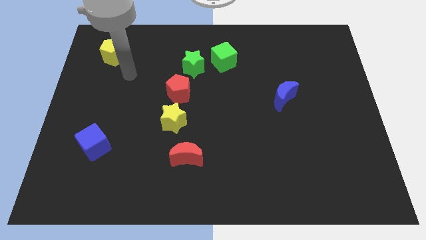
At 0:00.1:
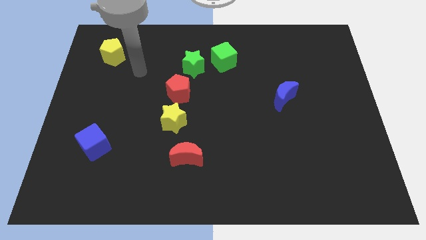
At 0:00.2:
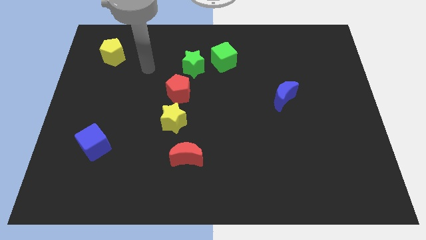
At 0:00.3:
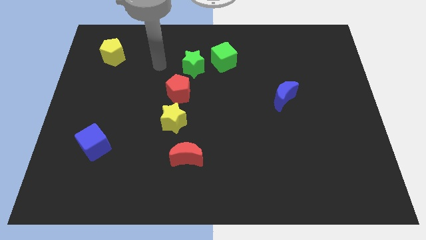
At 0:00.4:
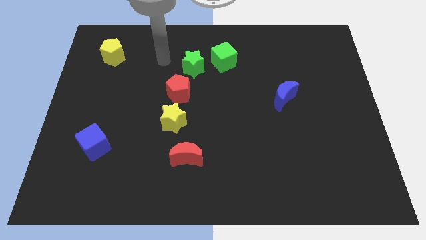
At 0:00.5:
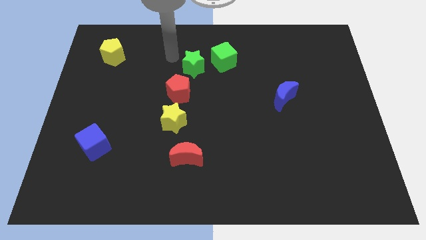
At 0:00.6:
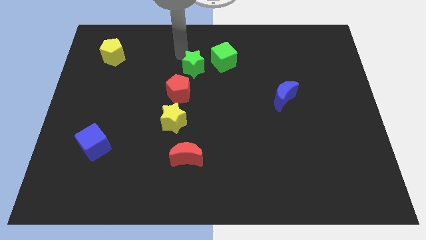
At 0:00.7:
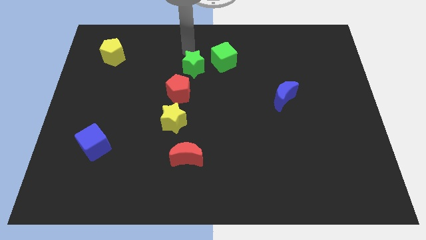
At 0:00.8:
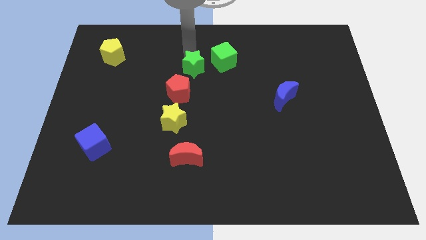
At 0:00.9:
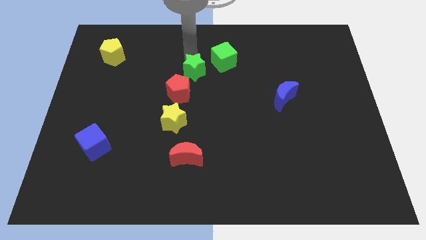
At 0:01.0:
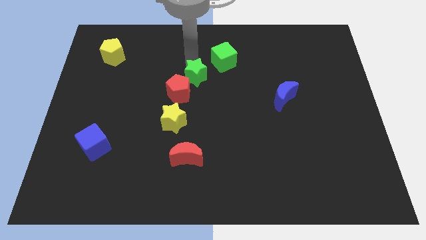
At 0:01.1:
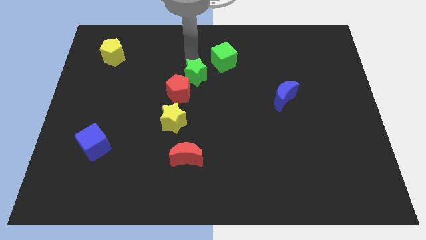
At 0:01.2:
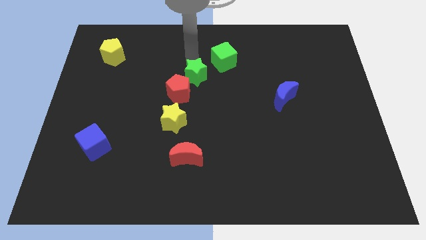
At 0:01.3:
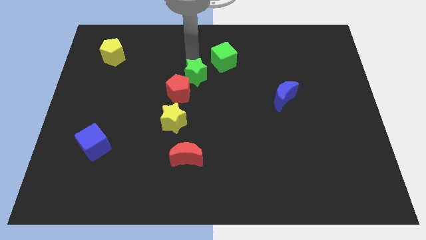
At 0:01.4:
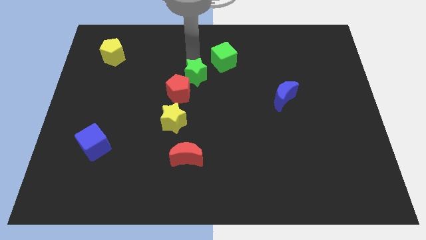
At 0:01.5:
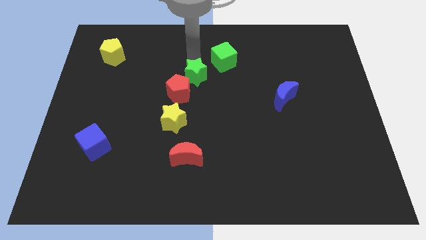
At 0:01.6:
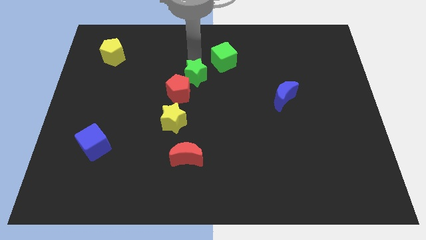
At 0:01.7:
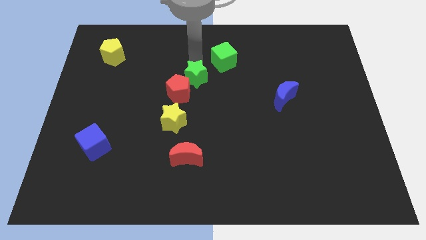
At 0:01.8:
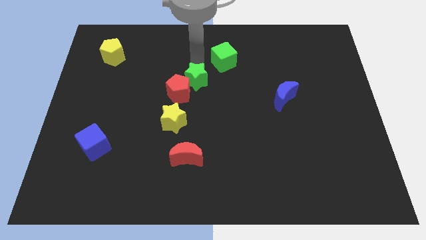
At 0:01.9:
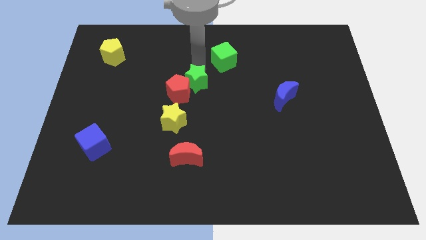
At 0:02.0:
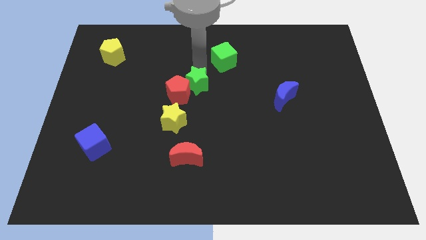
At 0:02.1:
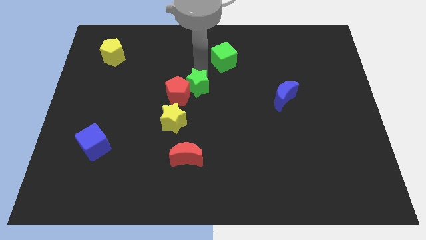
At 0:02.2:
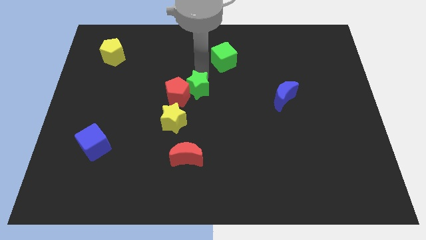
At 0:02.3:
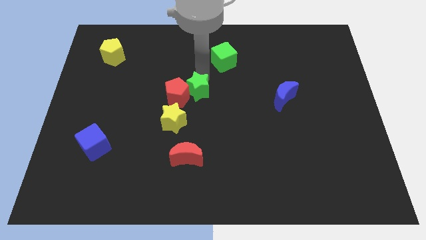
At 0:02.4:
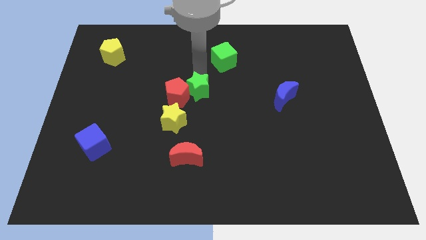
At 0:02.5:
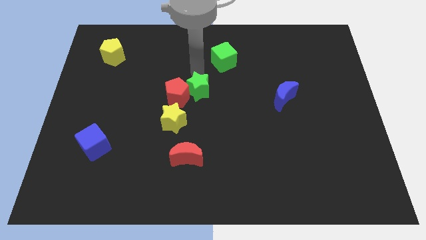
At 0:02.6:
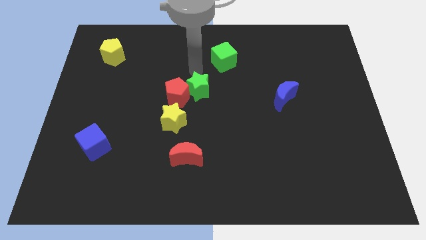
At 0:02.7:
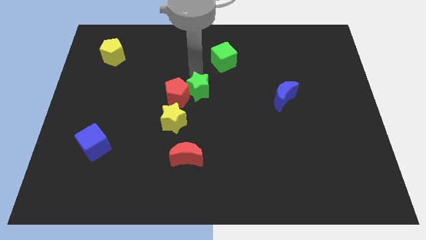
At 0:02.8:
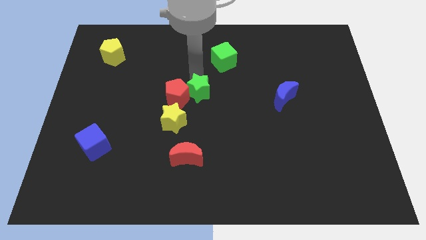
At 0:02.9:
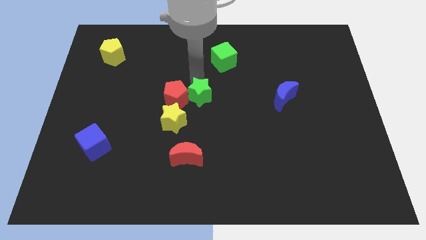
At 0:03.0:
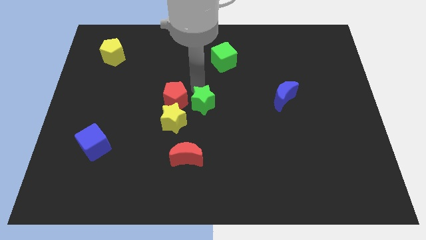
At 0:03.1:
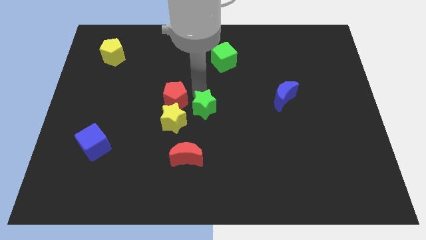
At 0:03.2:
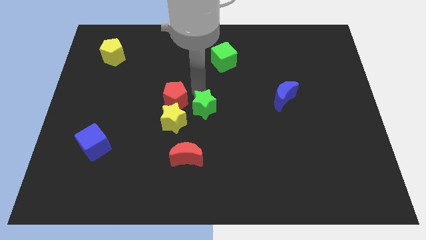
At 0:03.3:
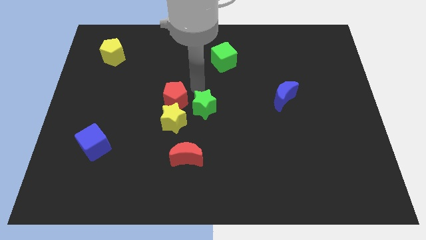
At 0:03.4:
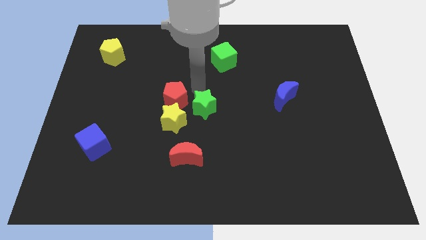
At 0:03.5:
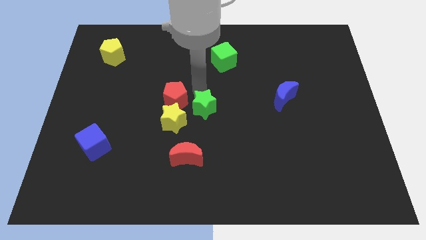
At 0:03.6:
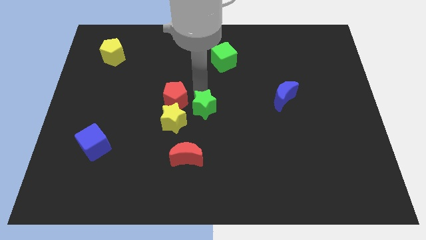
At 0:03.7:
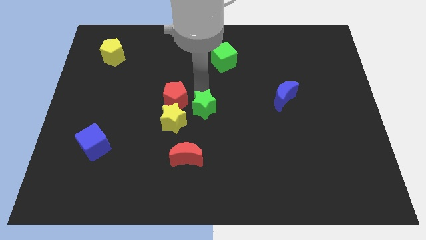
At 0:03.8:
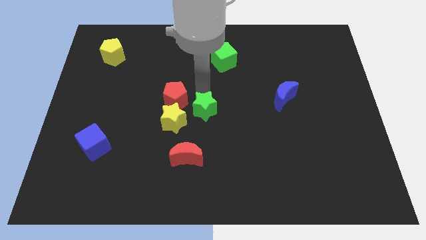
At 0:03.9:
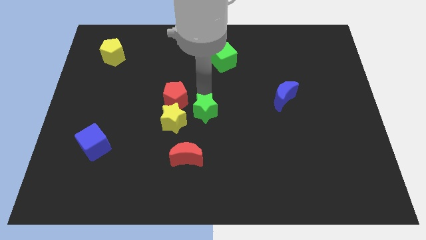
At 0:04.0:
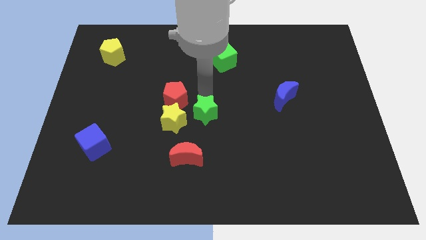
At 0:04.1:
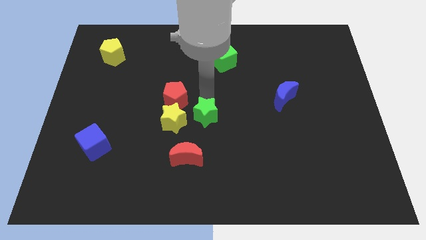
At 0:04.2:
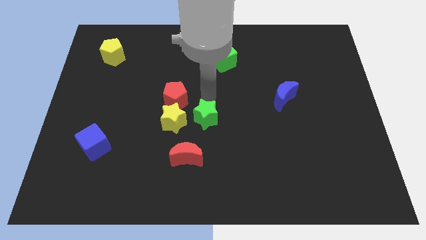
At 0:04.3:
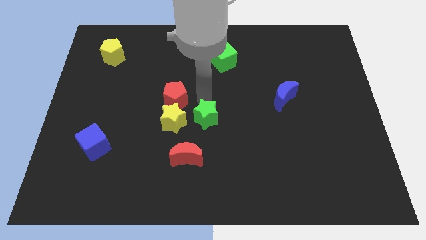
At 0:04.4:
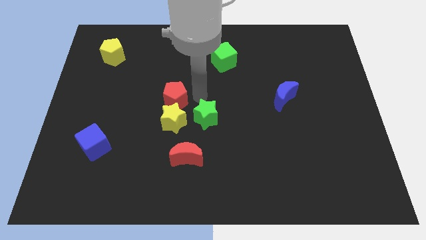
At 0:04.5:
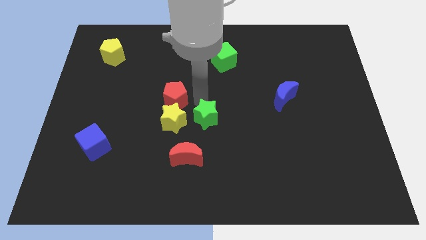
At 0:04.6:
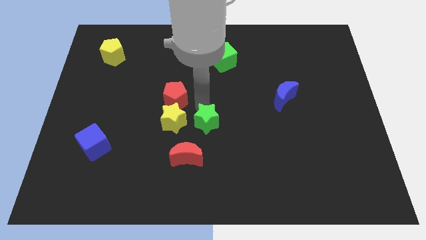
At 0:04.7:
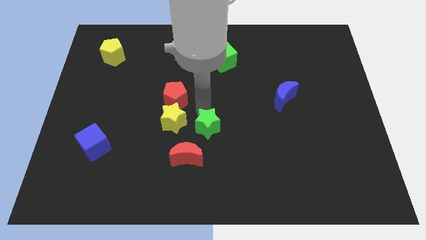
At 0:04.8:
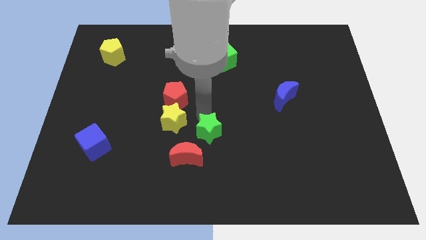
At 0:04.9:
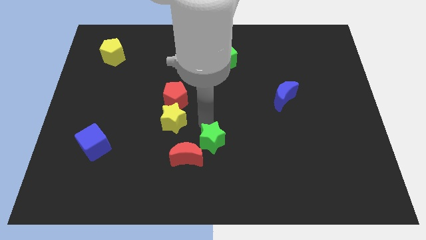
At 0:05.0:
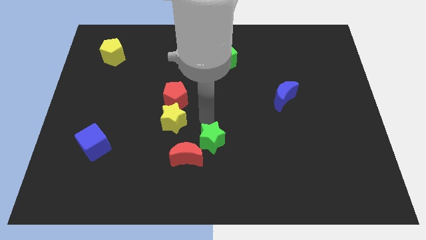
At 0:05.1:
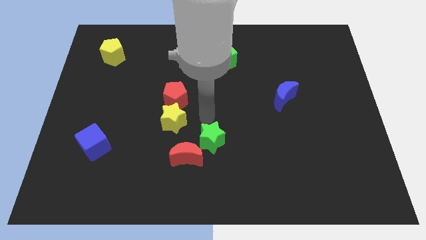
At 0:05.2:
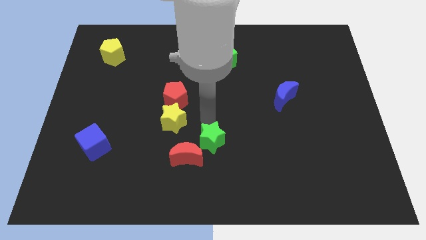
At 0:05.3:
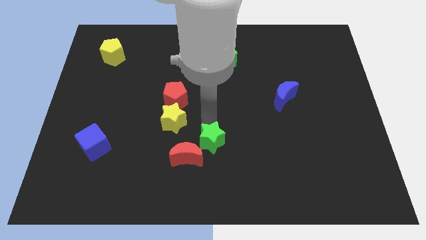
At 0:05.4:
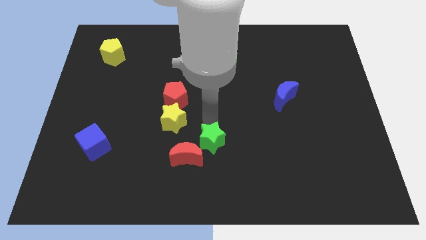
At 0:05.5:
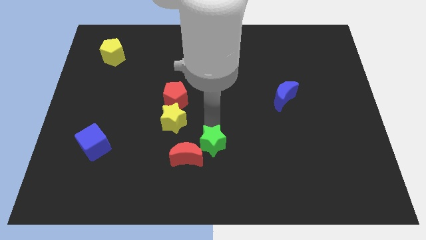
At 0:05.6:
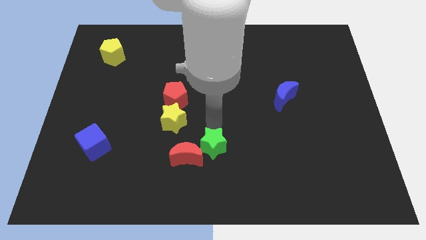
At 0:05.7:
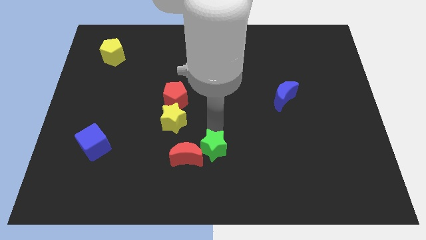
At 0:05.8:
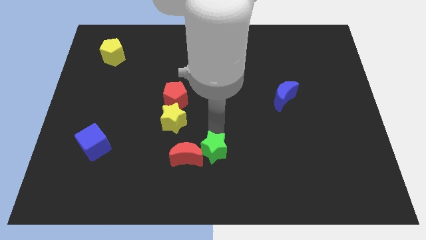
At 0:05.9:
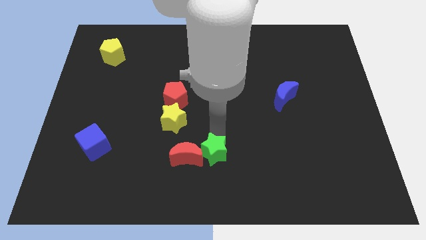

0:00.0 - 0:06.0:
push the green star to the bottom
